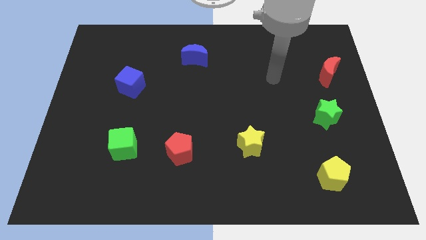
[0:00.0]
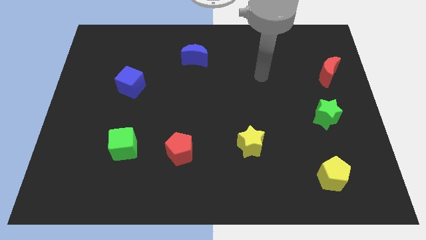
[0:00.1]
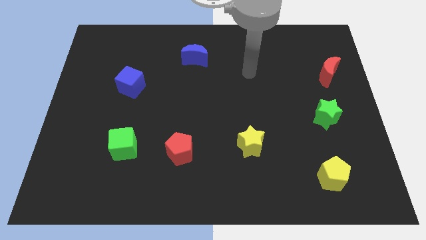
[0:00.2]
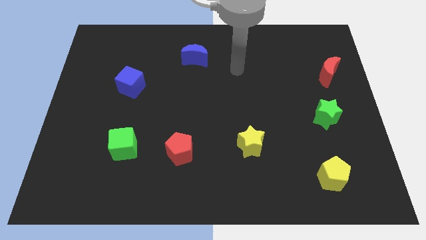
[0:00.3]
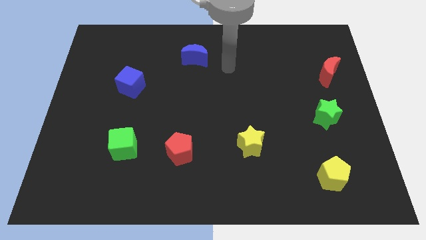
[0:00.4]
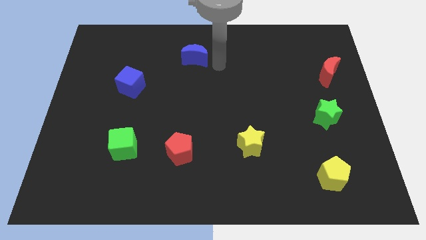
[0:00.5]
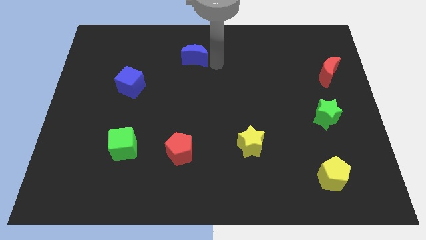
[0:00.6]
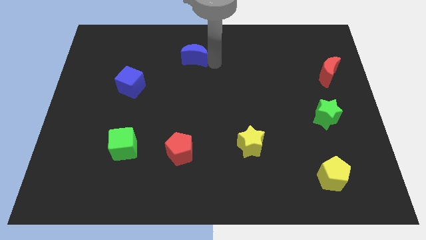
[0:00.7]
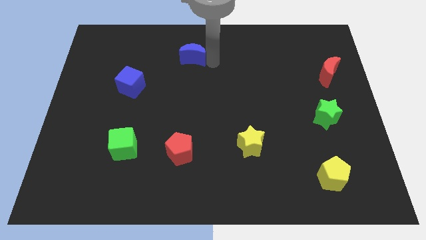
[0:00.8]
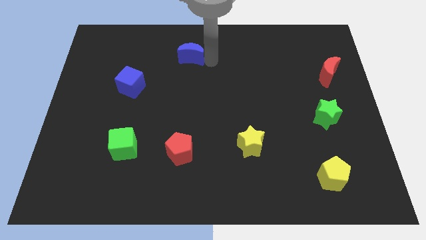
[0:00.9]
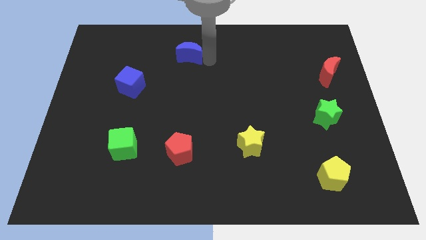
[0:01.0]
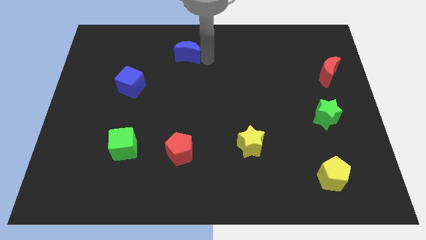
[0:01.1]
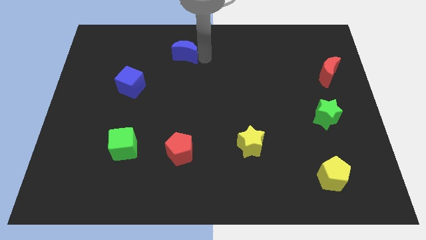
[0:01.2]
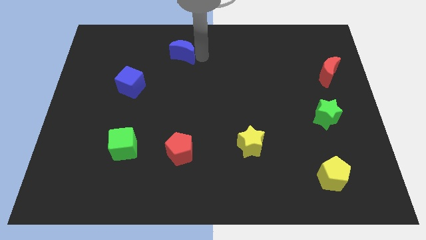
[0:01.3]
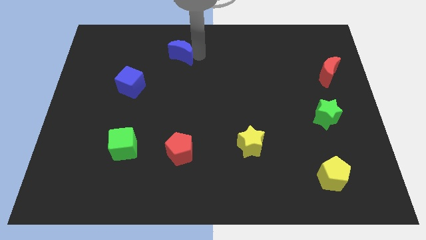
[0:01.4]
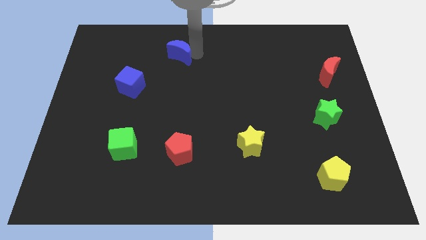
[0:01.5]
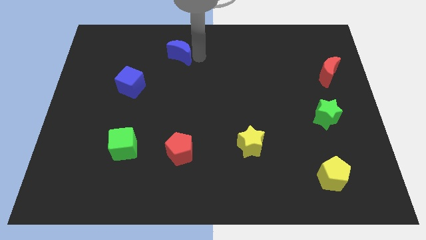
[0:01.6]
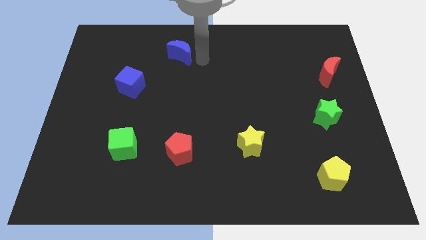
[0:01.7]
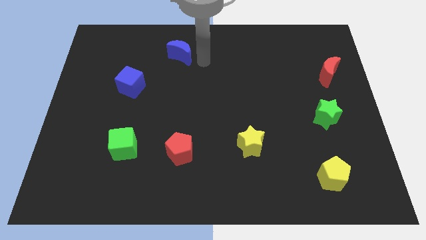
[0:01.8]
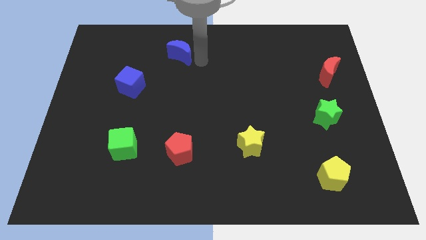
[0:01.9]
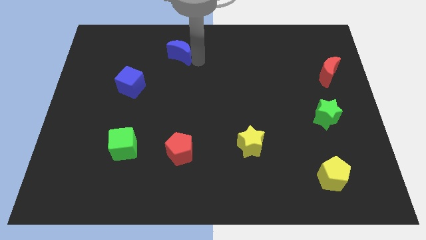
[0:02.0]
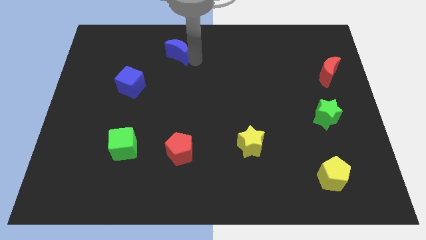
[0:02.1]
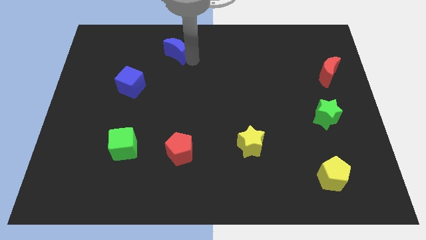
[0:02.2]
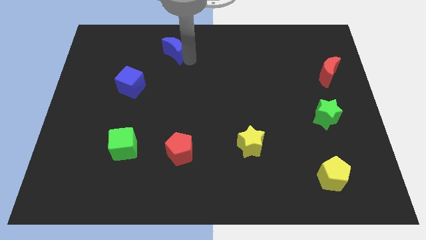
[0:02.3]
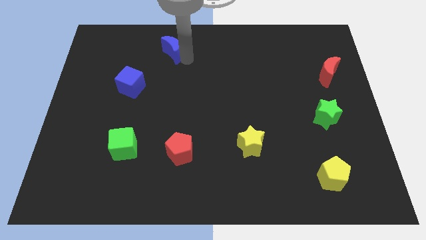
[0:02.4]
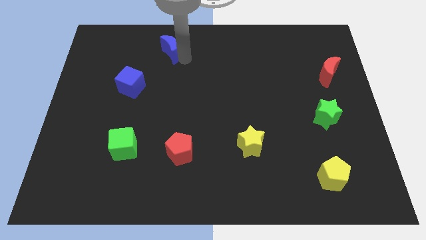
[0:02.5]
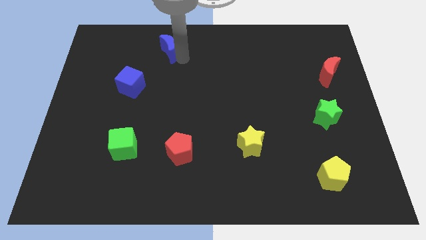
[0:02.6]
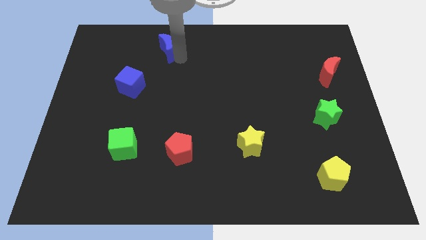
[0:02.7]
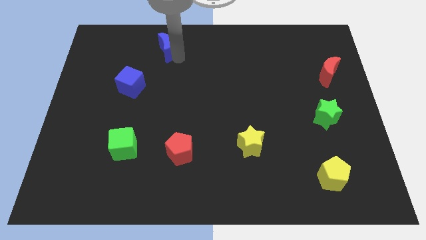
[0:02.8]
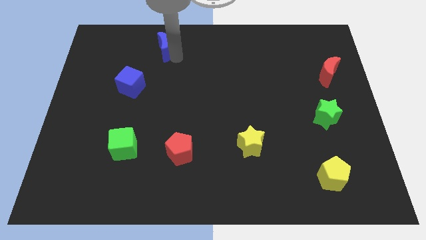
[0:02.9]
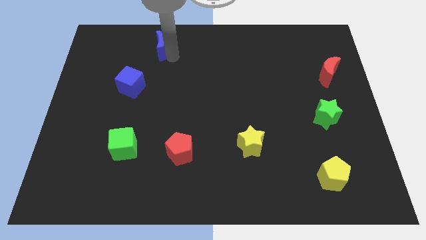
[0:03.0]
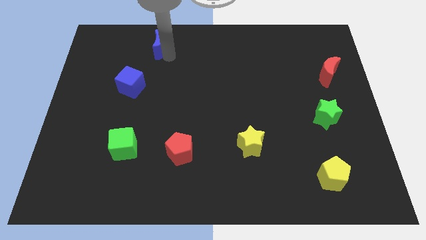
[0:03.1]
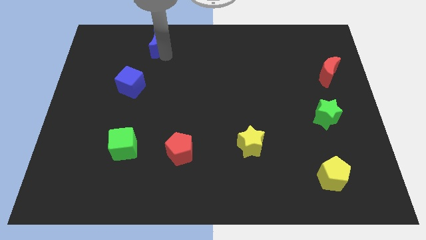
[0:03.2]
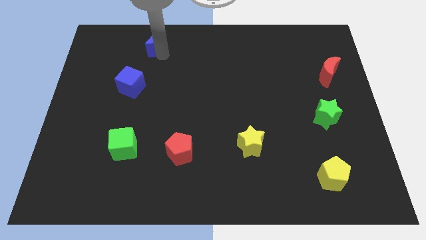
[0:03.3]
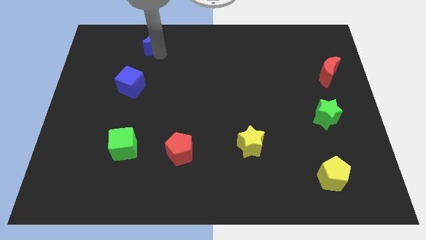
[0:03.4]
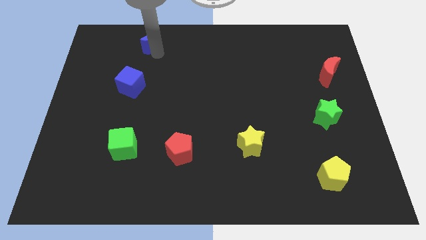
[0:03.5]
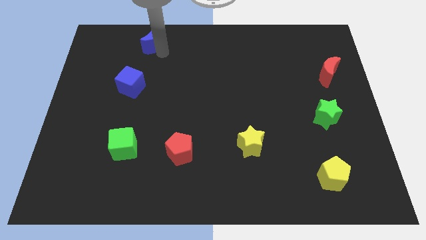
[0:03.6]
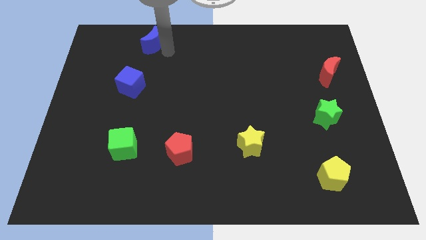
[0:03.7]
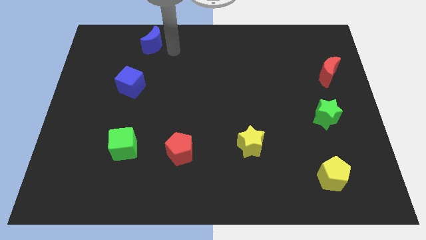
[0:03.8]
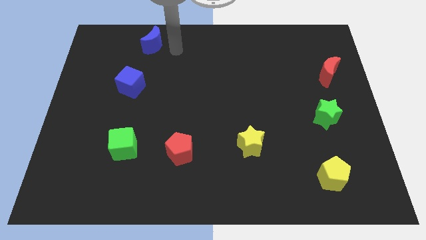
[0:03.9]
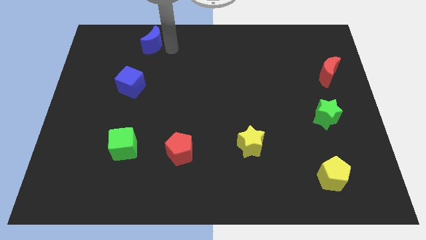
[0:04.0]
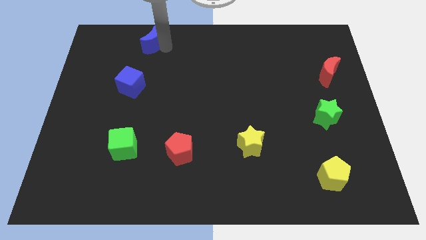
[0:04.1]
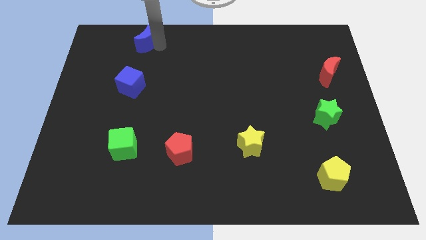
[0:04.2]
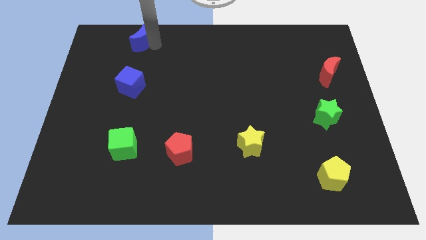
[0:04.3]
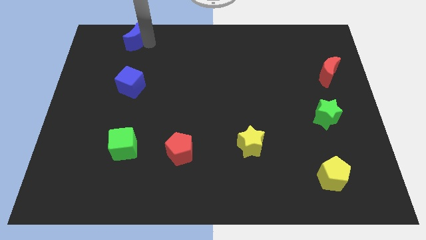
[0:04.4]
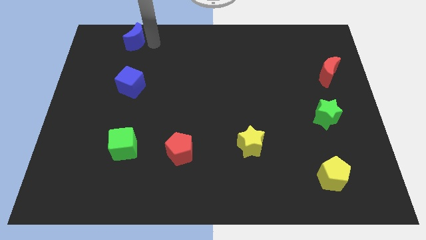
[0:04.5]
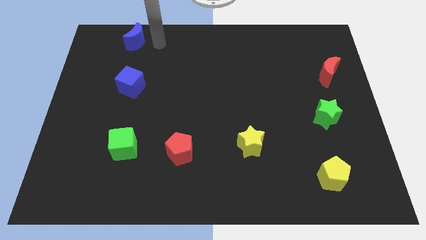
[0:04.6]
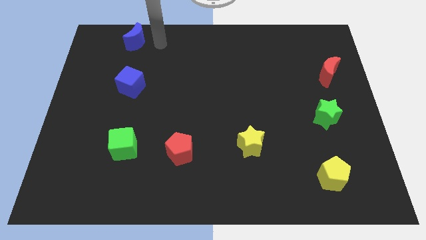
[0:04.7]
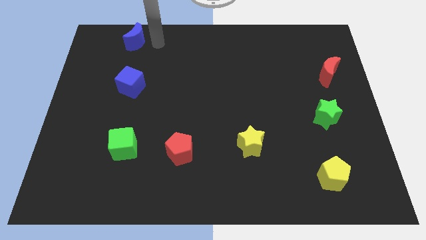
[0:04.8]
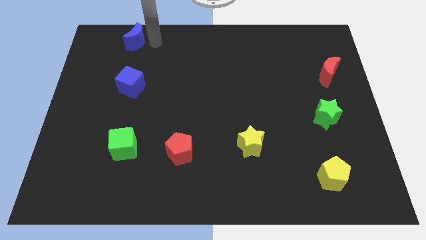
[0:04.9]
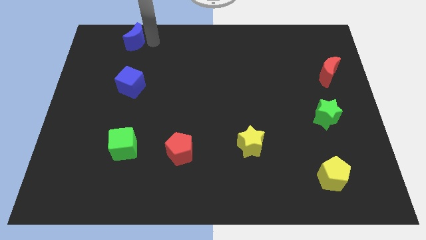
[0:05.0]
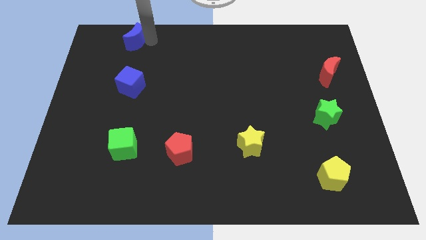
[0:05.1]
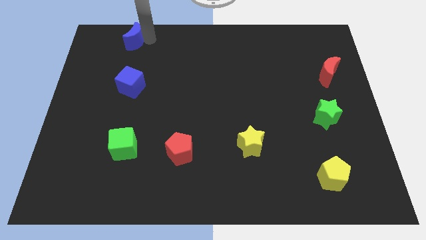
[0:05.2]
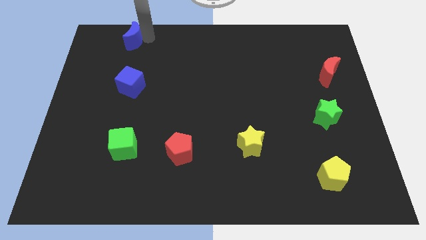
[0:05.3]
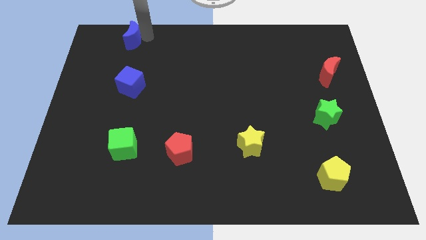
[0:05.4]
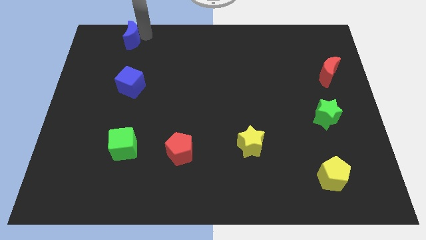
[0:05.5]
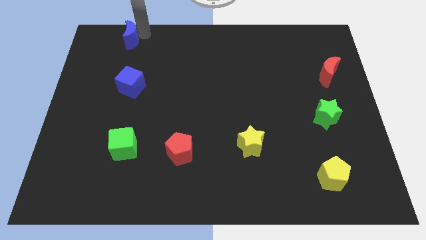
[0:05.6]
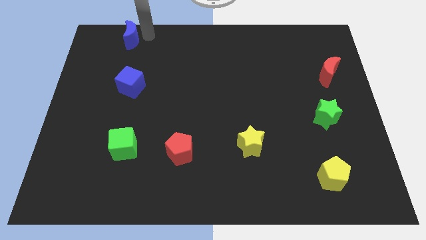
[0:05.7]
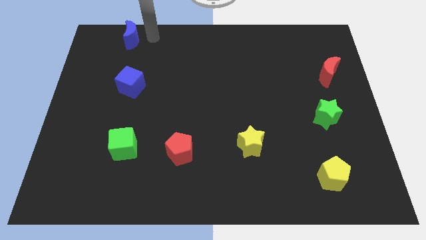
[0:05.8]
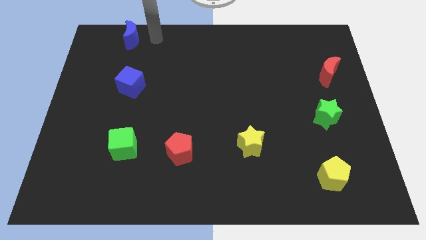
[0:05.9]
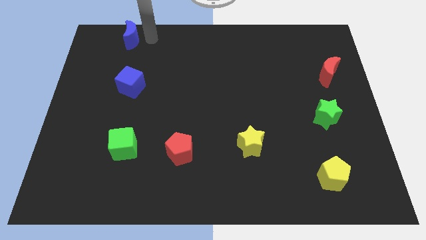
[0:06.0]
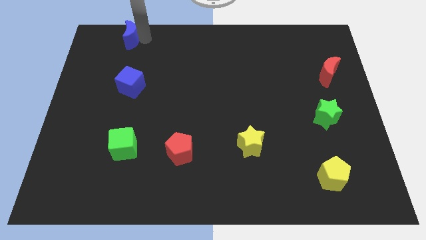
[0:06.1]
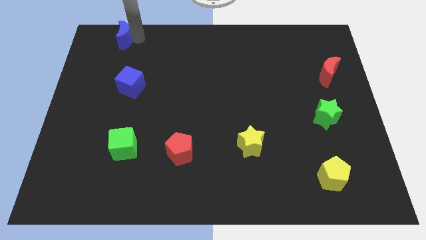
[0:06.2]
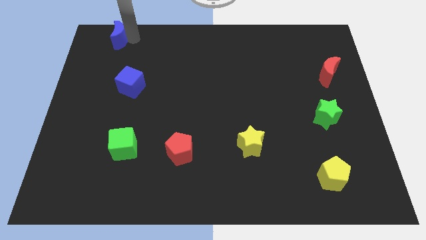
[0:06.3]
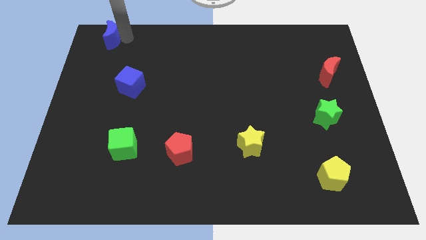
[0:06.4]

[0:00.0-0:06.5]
push the blue moon to the top left of the board
